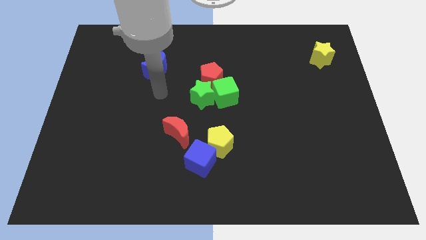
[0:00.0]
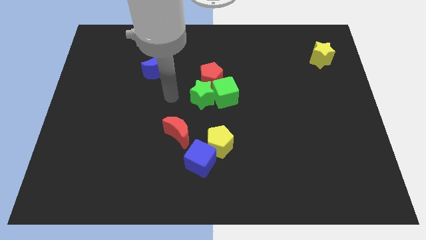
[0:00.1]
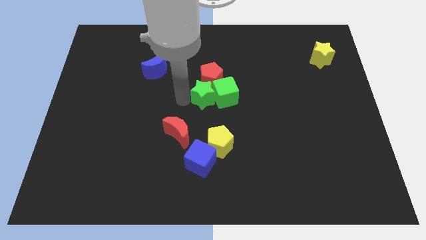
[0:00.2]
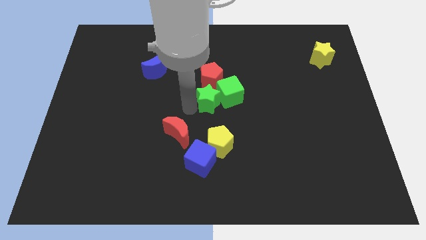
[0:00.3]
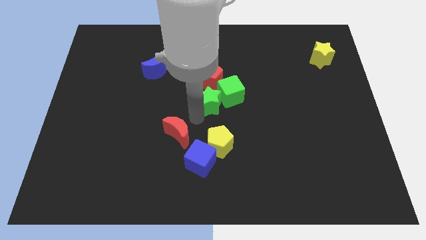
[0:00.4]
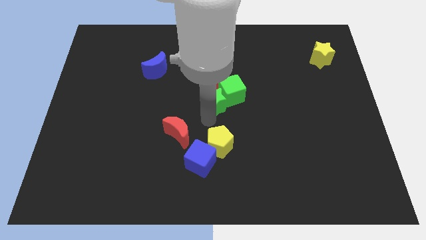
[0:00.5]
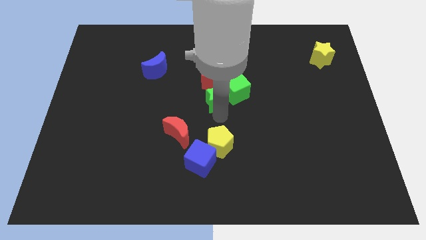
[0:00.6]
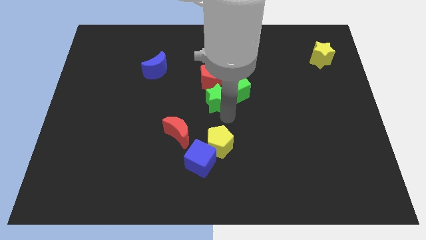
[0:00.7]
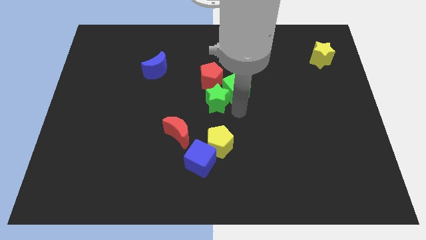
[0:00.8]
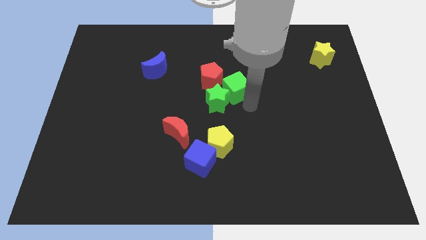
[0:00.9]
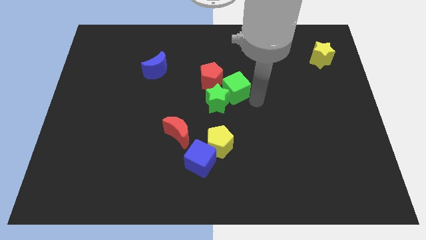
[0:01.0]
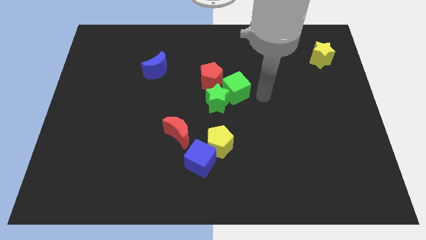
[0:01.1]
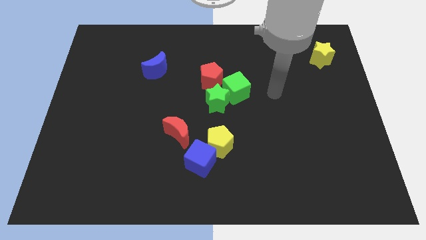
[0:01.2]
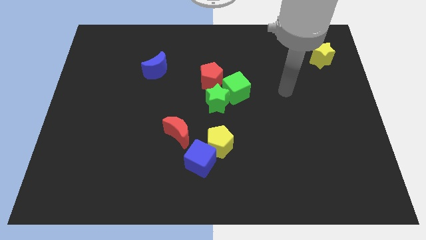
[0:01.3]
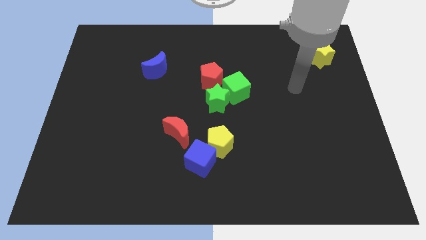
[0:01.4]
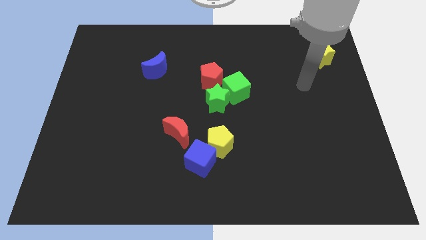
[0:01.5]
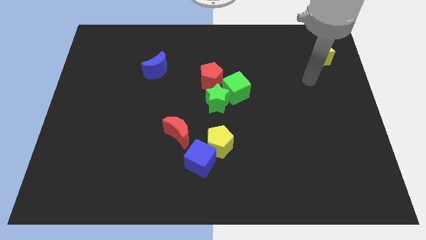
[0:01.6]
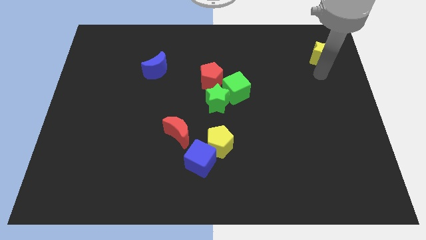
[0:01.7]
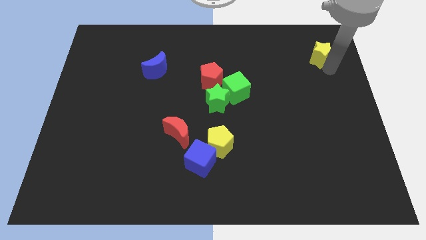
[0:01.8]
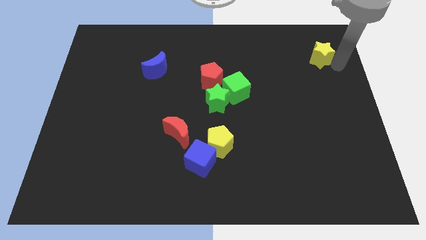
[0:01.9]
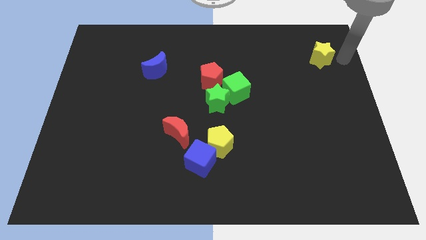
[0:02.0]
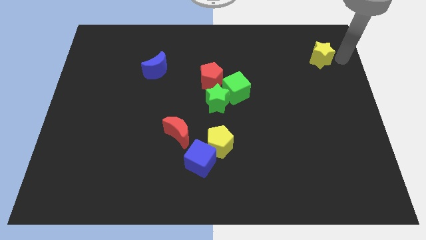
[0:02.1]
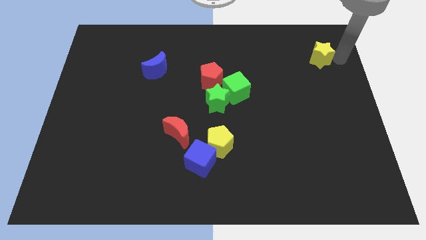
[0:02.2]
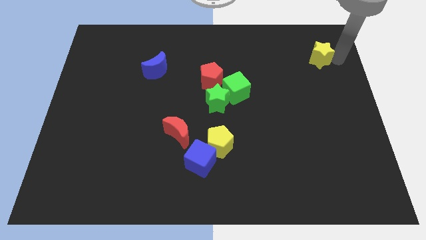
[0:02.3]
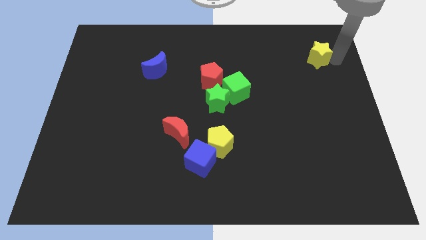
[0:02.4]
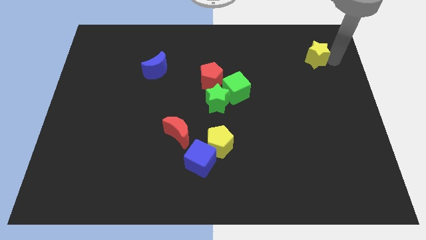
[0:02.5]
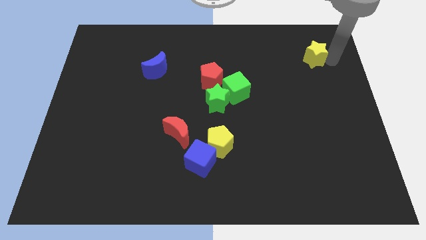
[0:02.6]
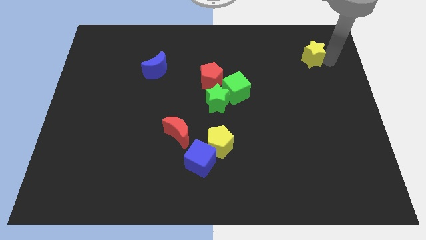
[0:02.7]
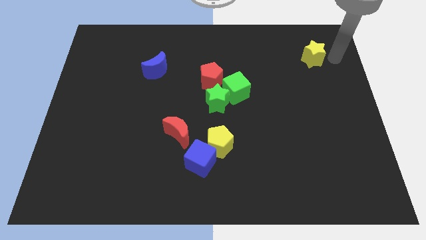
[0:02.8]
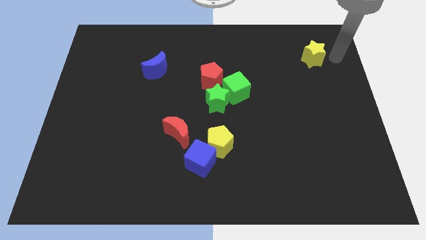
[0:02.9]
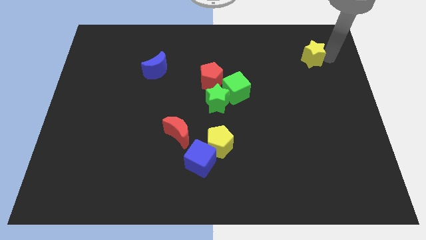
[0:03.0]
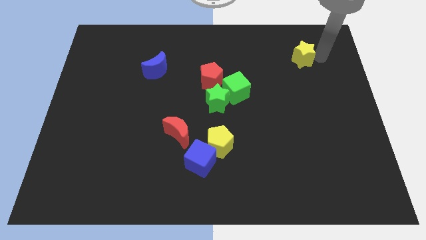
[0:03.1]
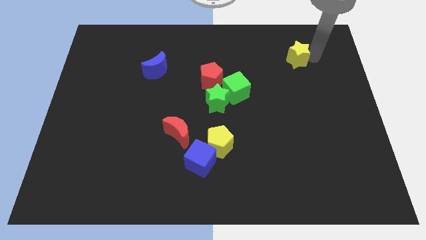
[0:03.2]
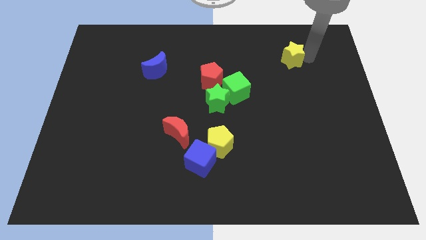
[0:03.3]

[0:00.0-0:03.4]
slightly slide the yellow star left

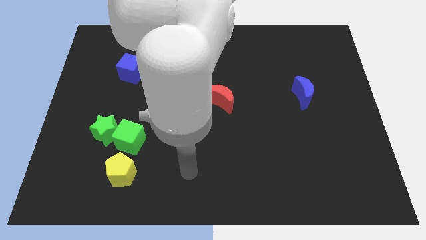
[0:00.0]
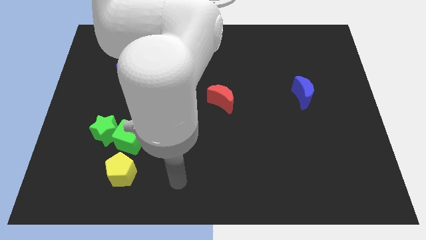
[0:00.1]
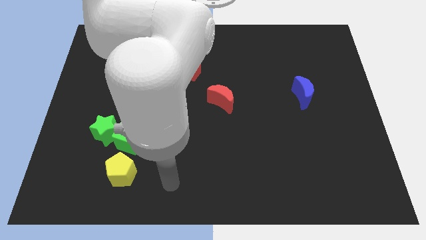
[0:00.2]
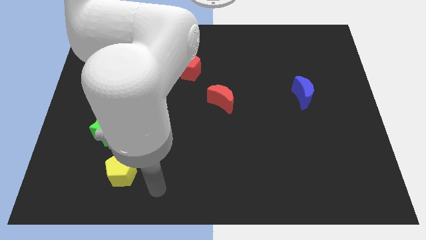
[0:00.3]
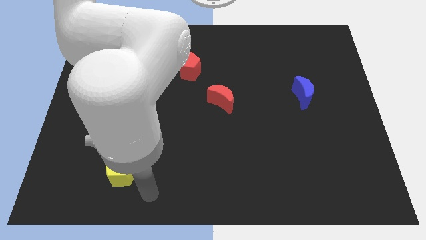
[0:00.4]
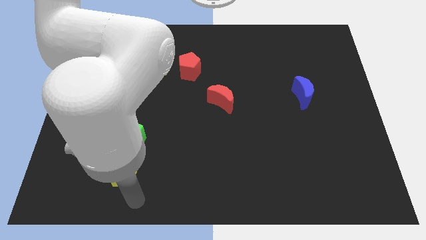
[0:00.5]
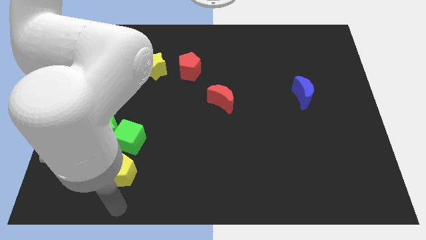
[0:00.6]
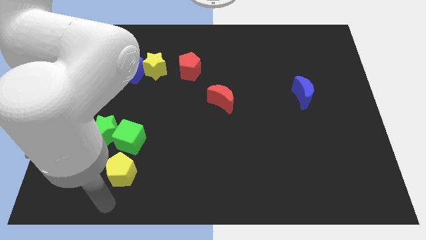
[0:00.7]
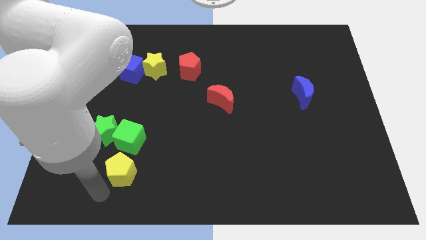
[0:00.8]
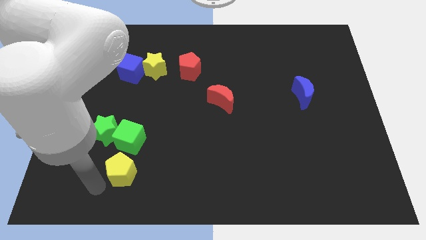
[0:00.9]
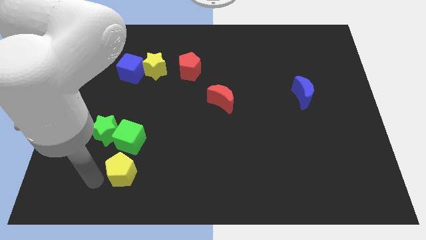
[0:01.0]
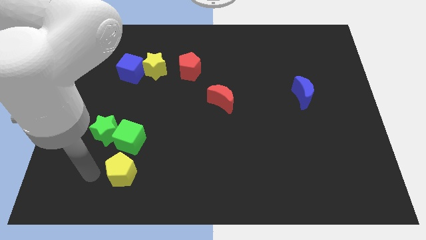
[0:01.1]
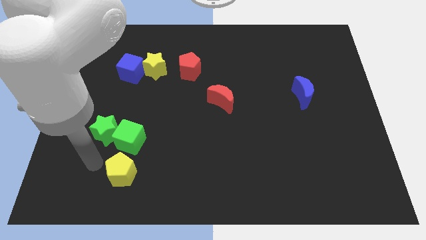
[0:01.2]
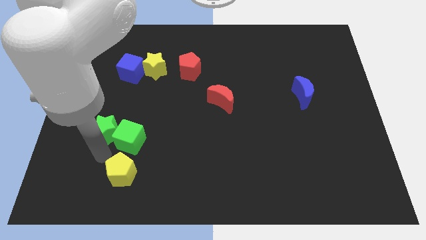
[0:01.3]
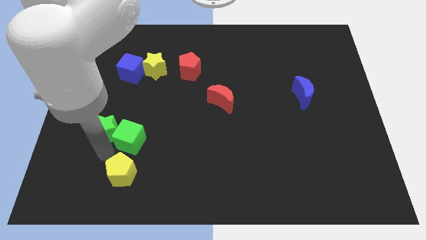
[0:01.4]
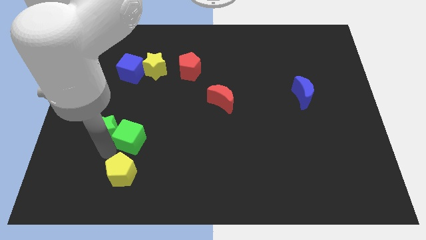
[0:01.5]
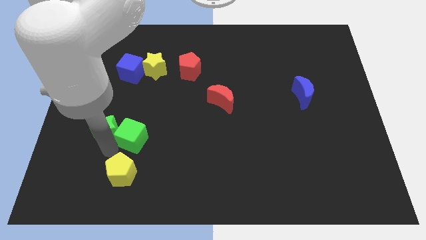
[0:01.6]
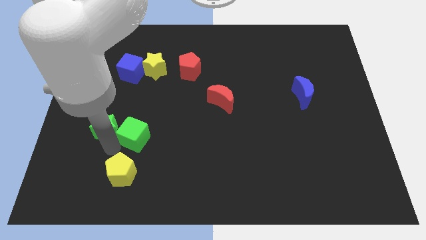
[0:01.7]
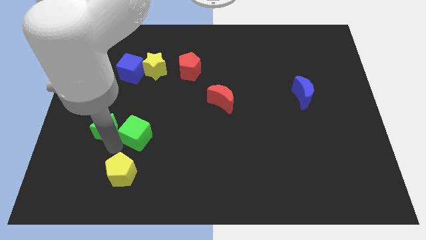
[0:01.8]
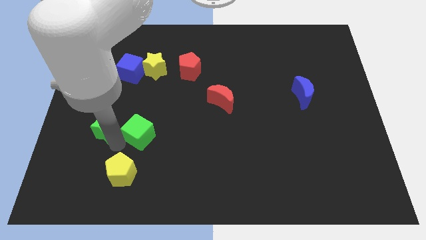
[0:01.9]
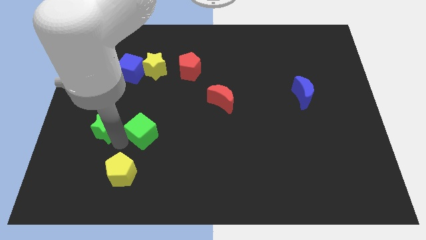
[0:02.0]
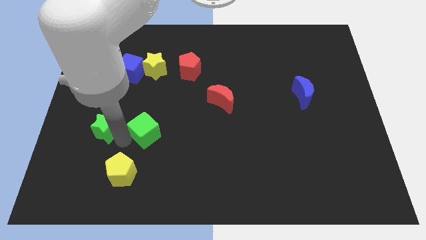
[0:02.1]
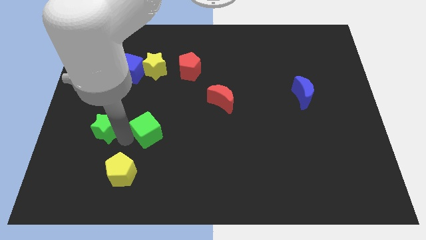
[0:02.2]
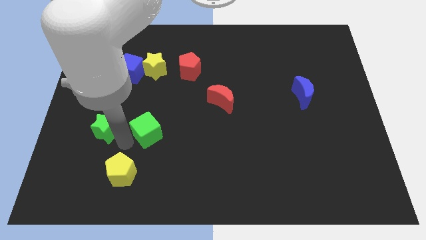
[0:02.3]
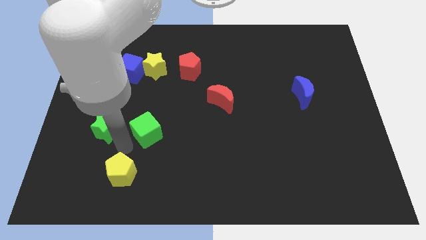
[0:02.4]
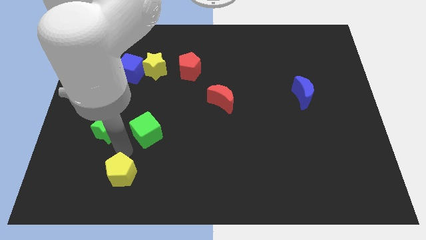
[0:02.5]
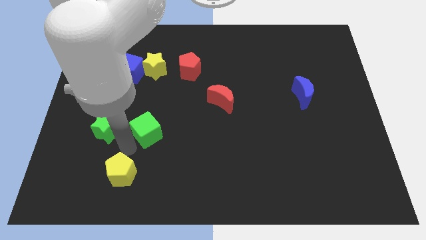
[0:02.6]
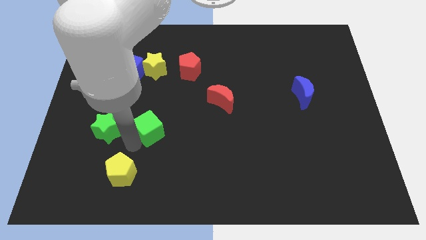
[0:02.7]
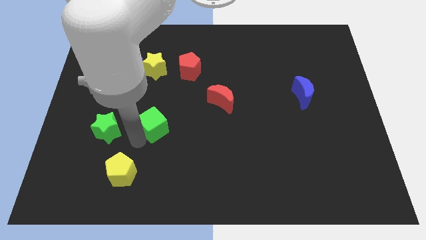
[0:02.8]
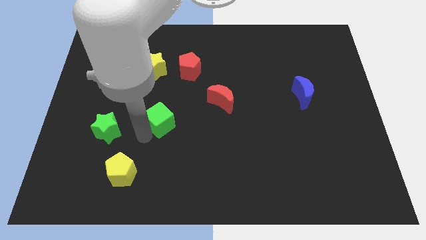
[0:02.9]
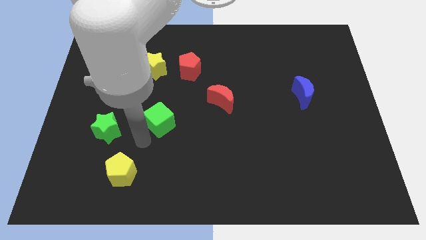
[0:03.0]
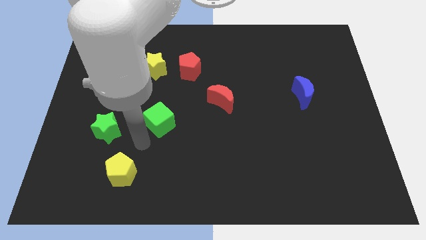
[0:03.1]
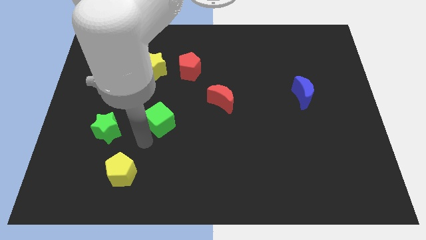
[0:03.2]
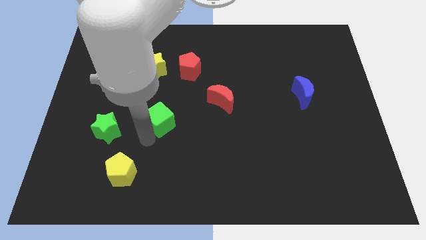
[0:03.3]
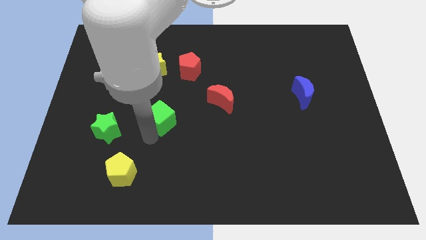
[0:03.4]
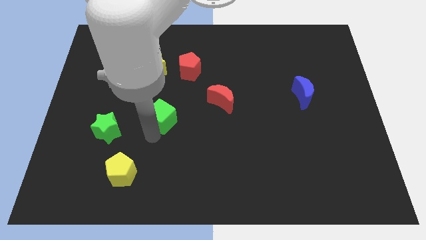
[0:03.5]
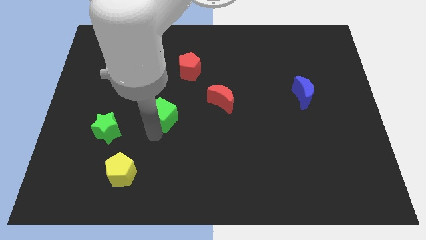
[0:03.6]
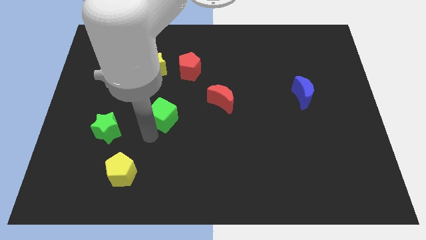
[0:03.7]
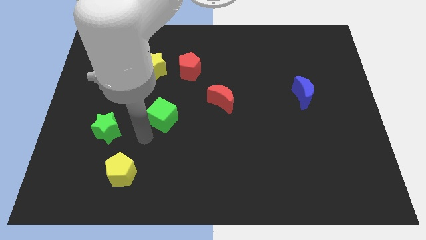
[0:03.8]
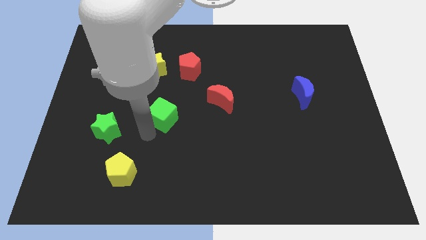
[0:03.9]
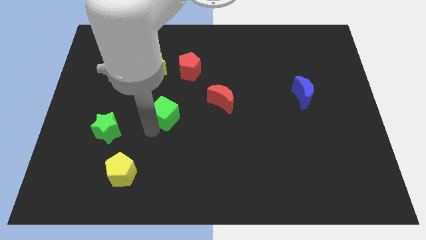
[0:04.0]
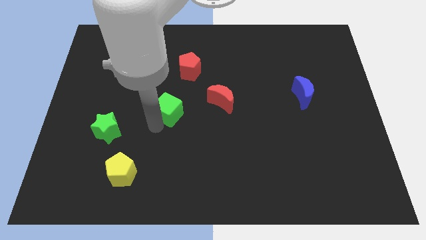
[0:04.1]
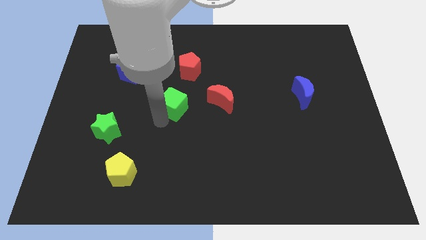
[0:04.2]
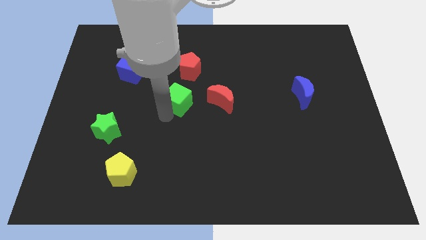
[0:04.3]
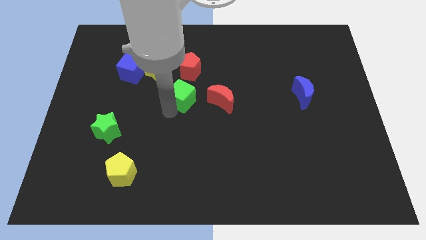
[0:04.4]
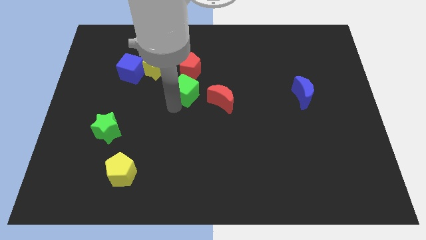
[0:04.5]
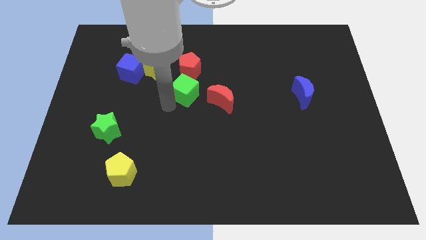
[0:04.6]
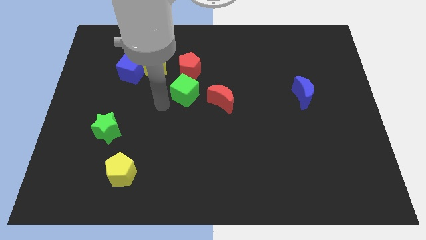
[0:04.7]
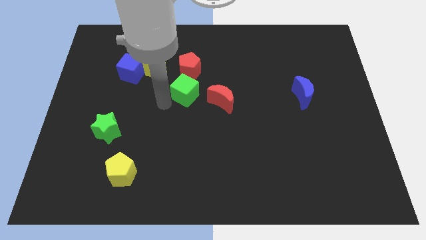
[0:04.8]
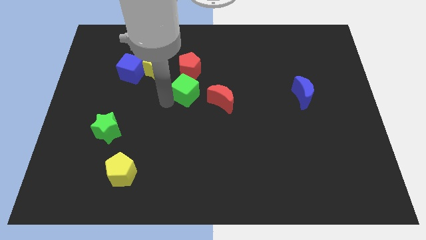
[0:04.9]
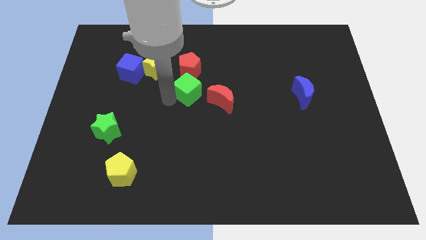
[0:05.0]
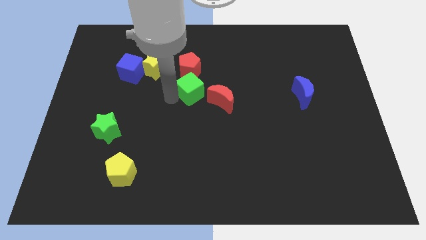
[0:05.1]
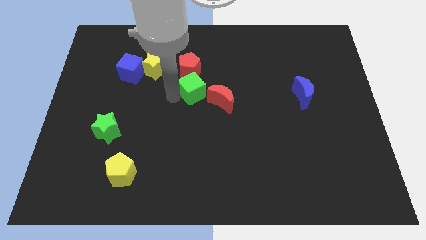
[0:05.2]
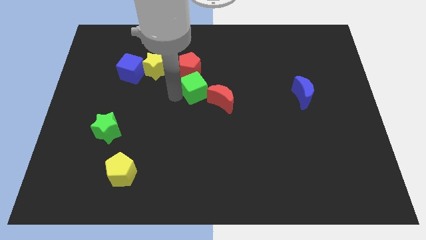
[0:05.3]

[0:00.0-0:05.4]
move the green cube diagonally upwards and to the right
